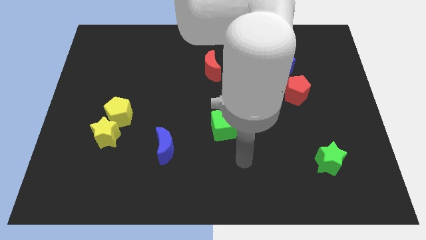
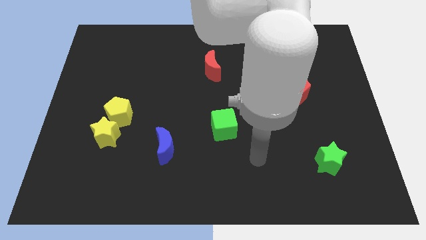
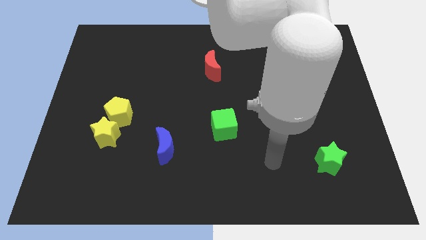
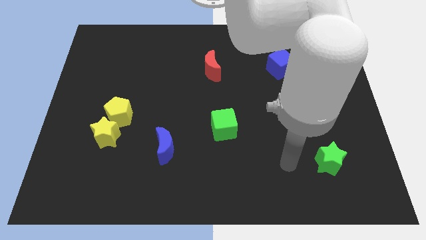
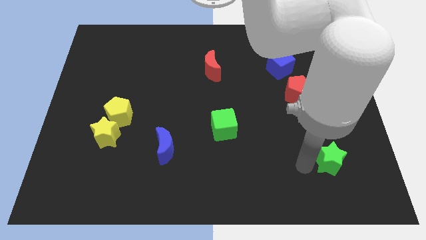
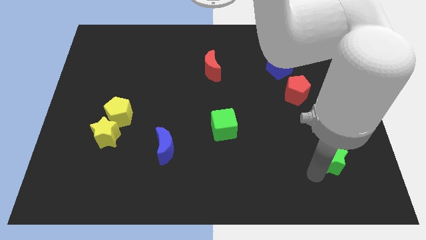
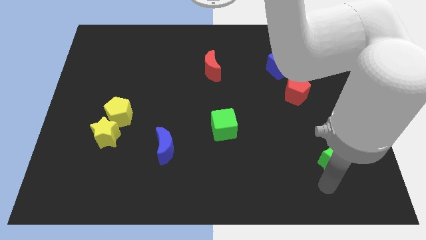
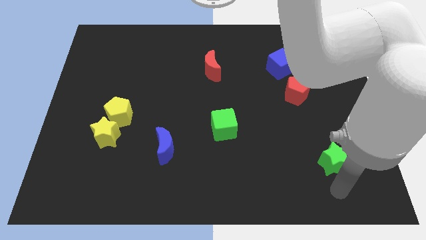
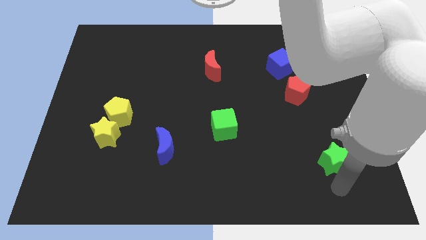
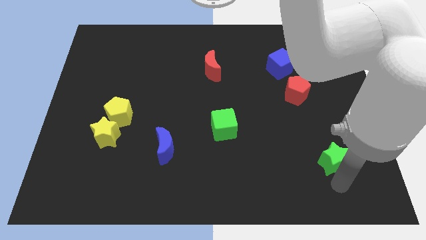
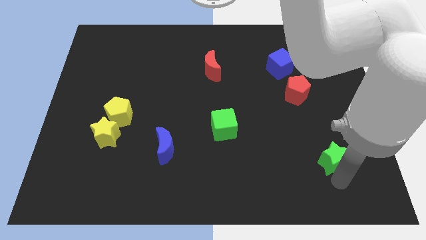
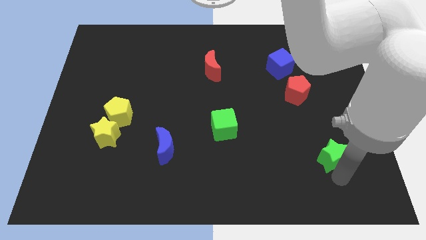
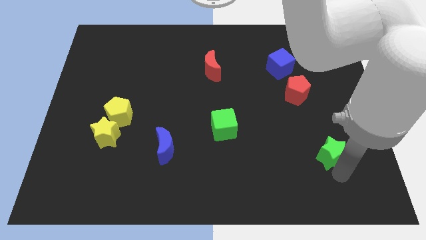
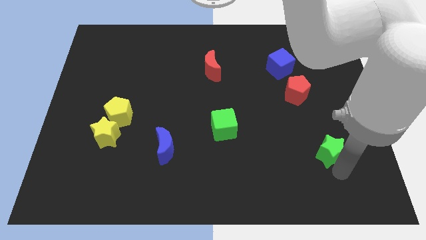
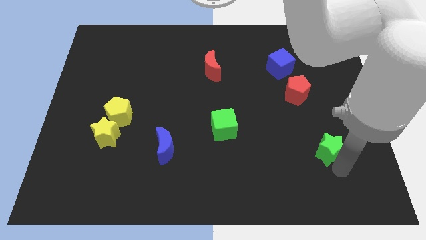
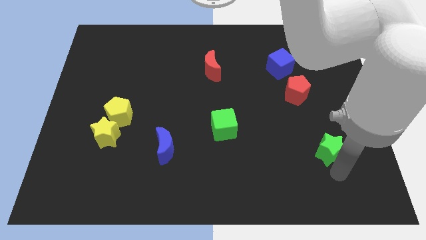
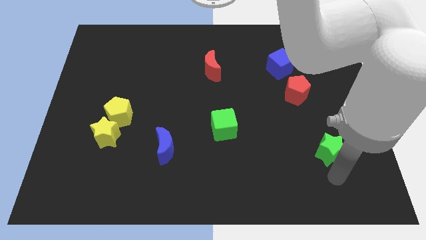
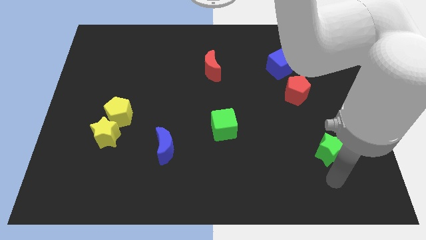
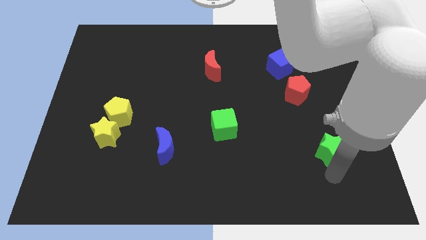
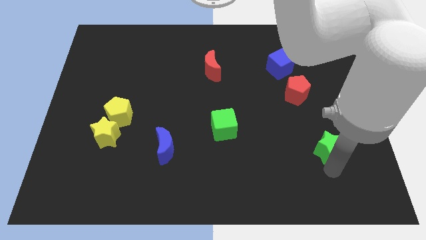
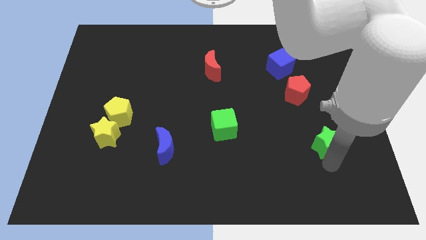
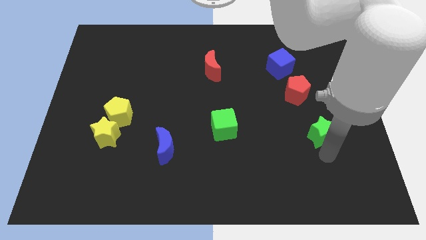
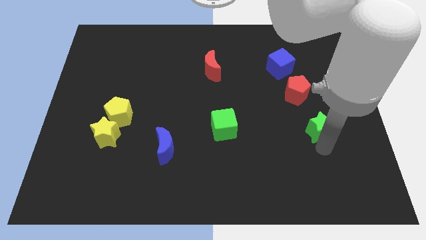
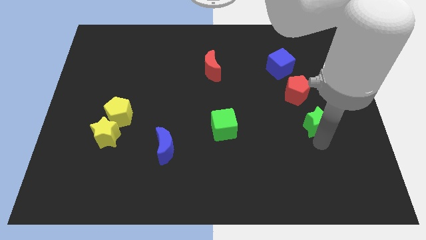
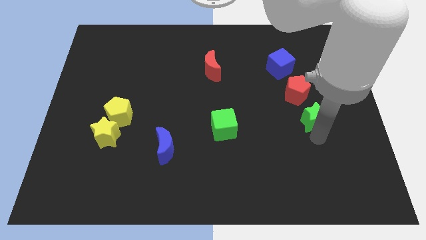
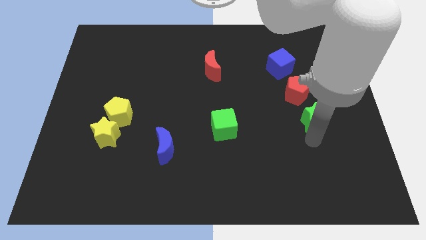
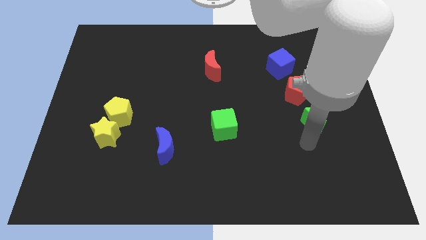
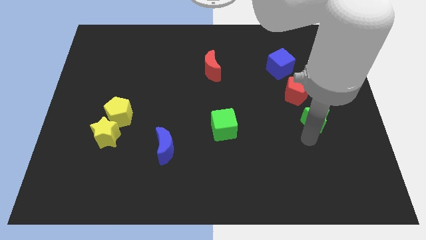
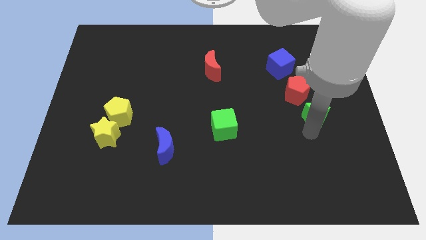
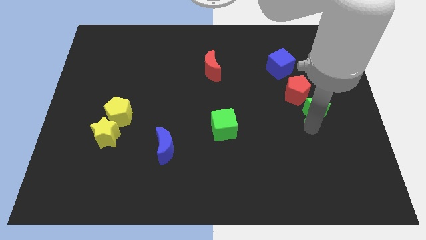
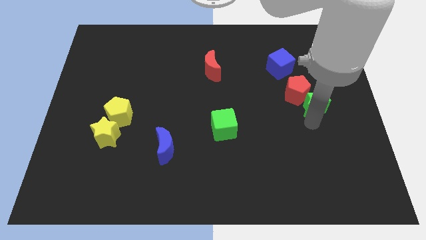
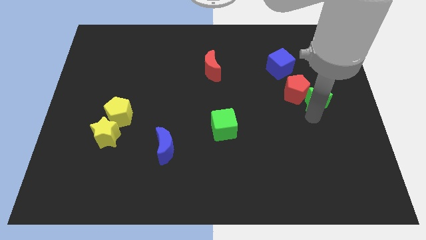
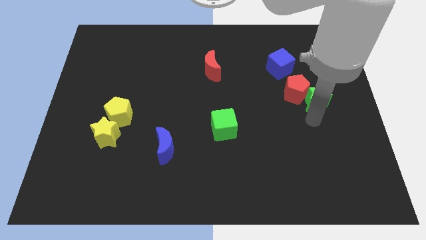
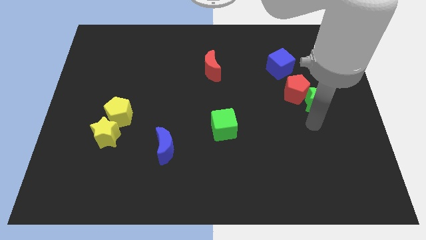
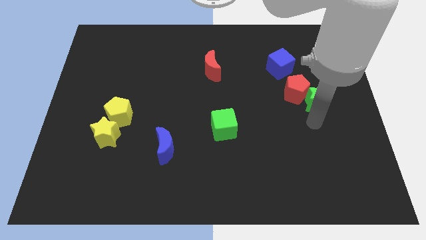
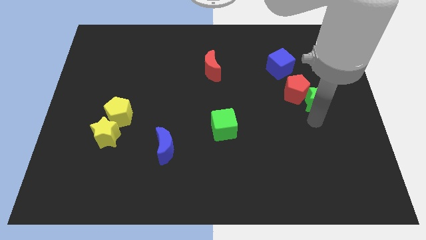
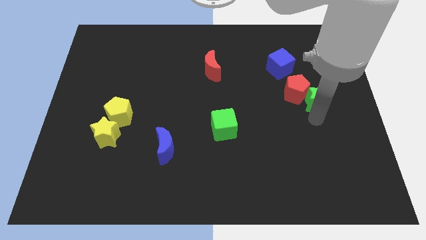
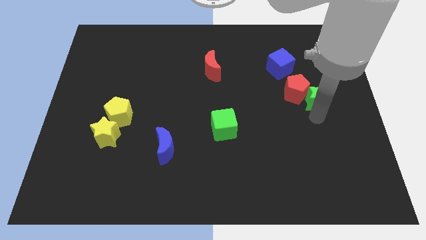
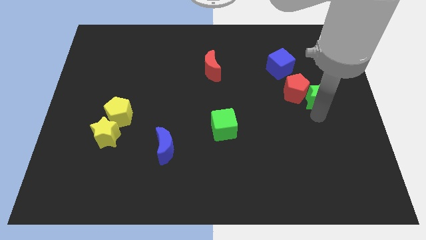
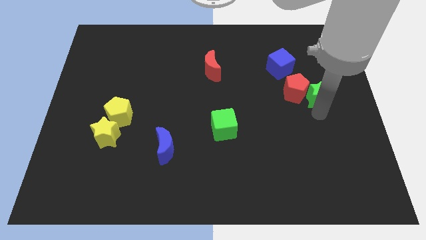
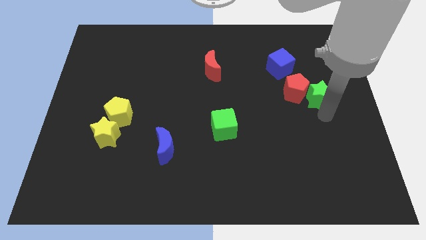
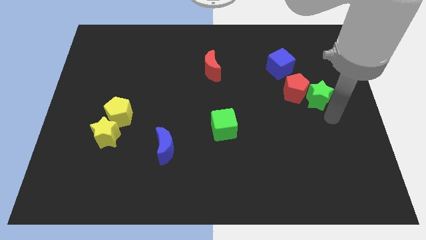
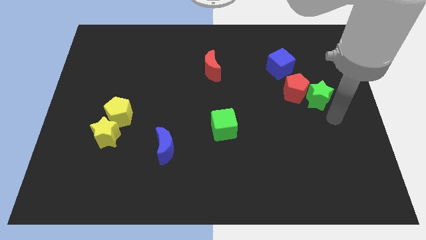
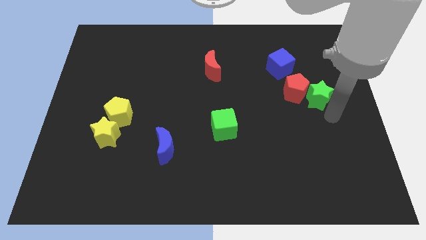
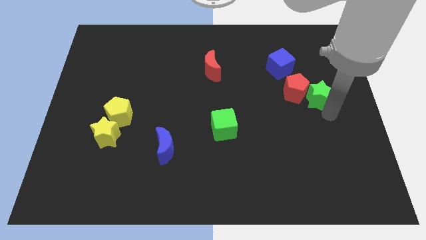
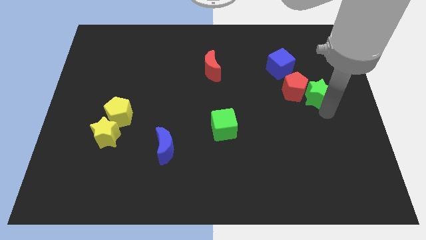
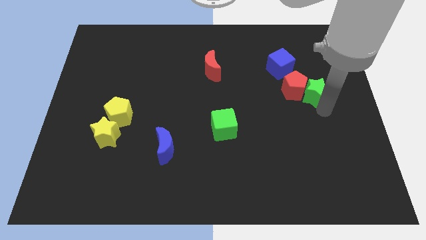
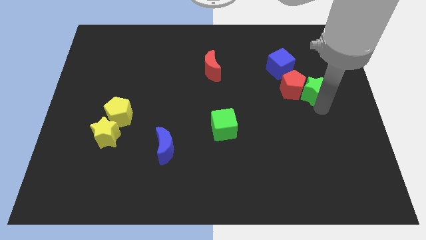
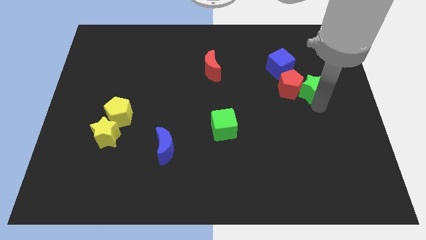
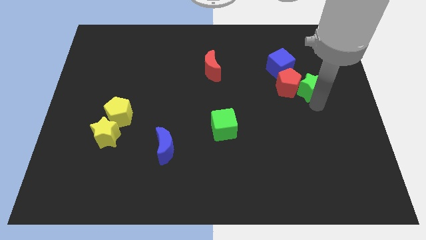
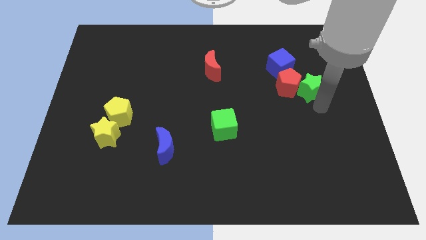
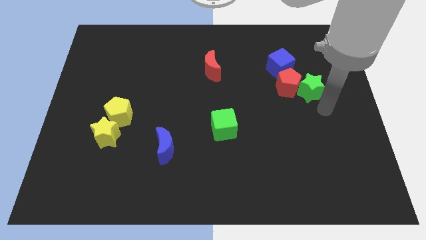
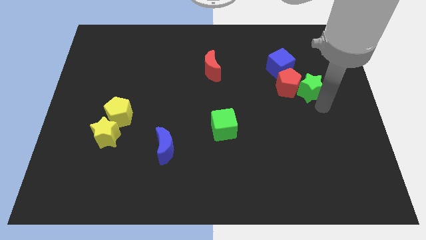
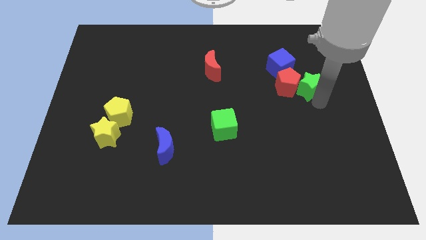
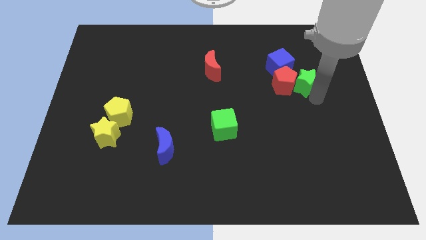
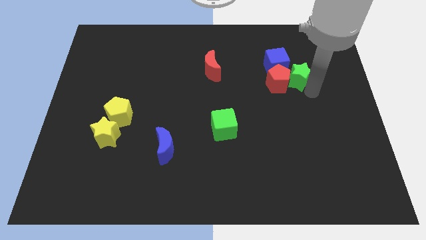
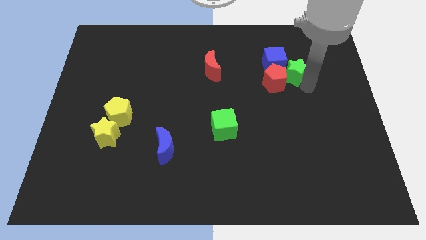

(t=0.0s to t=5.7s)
put the green star next to the blue cube

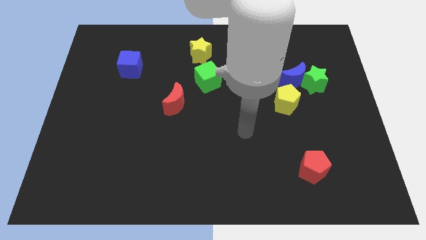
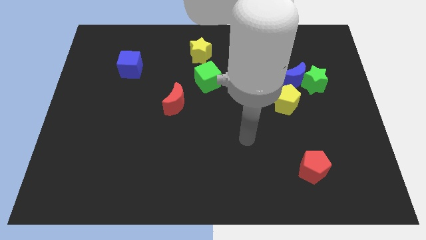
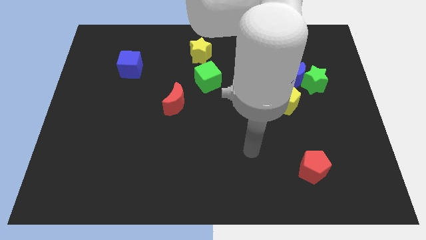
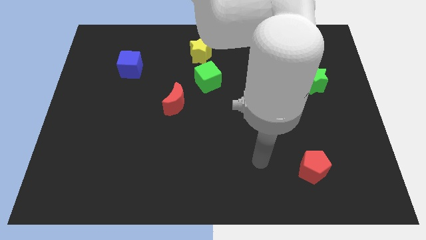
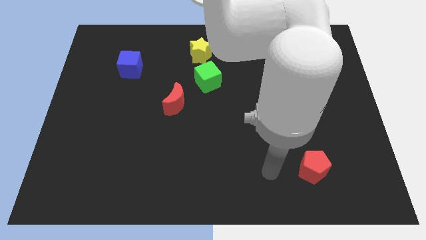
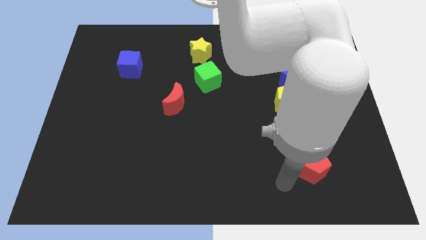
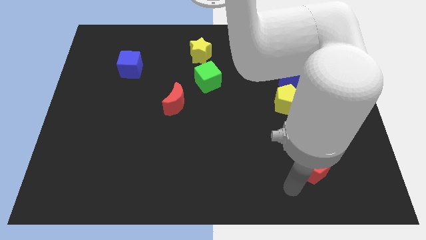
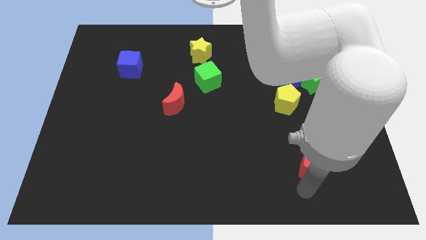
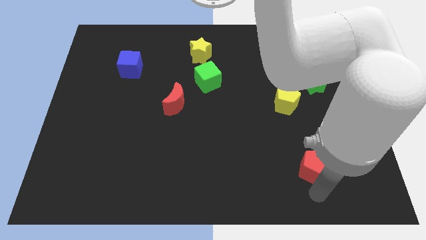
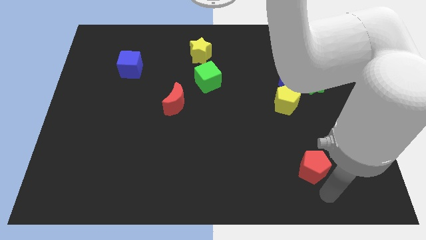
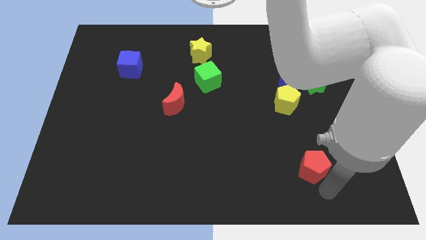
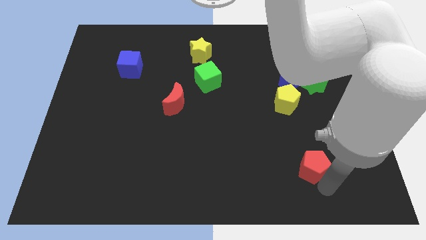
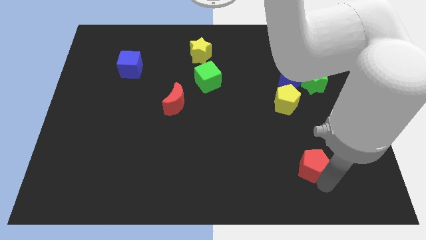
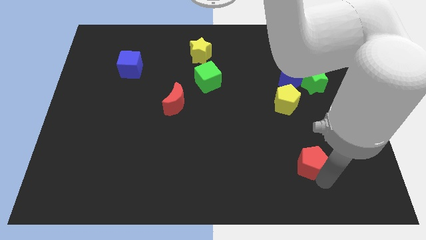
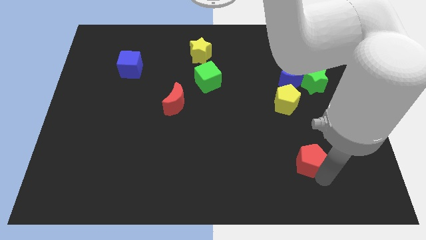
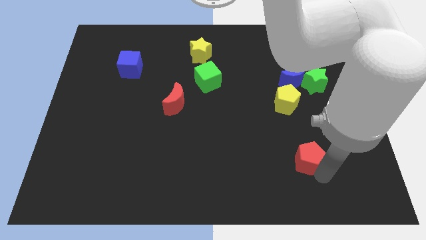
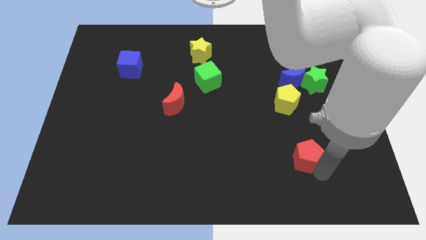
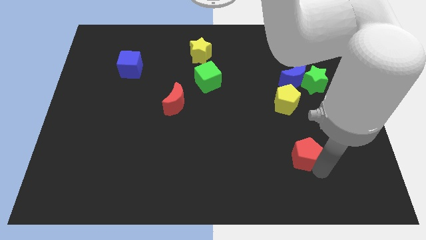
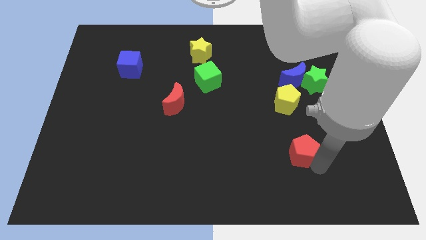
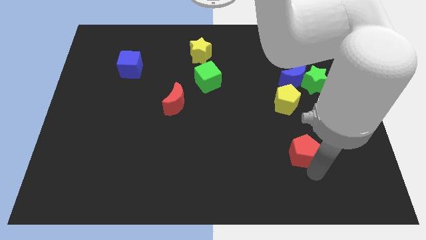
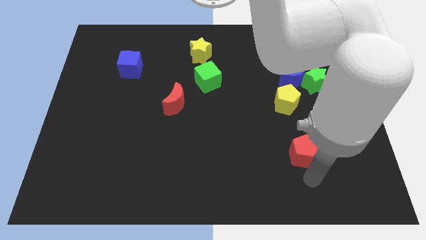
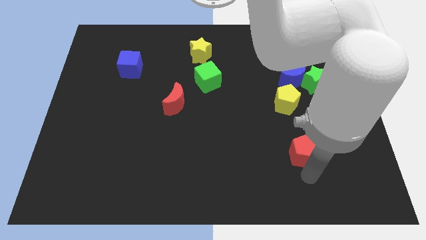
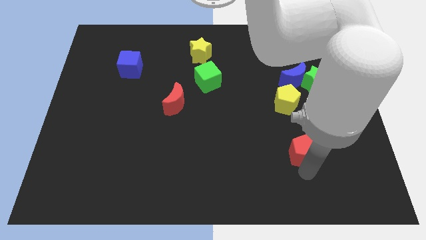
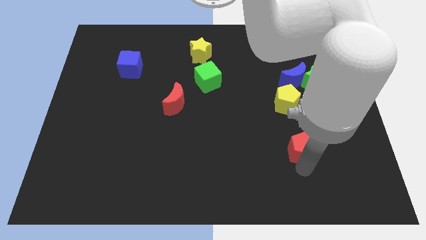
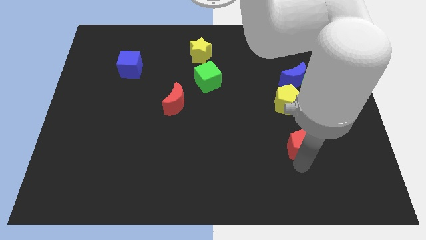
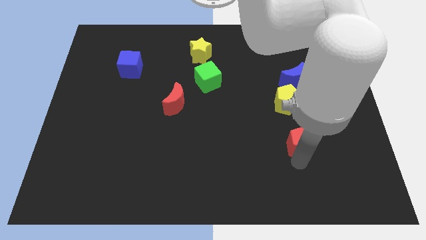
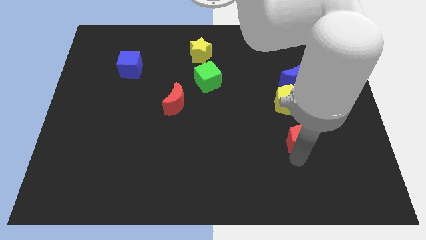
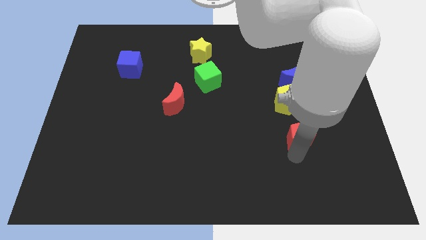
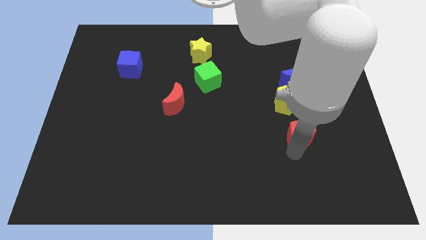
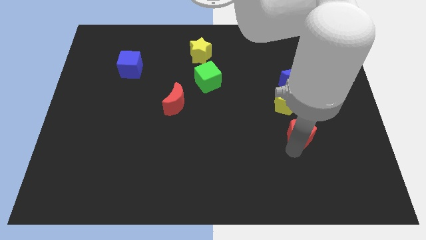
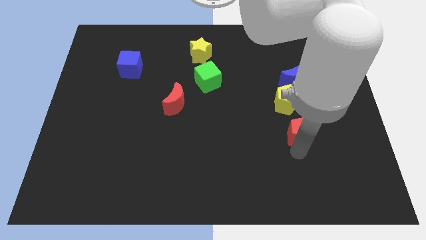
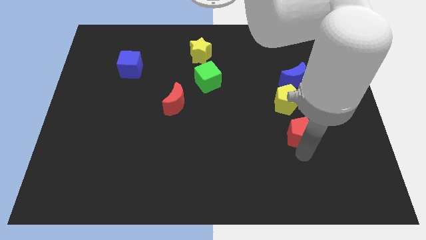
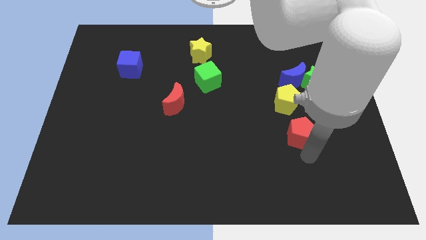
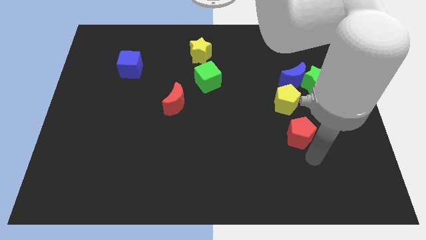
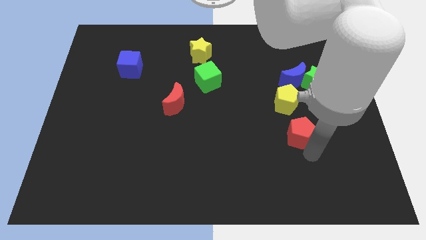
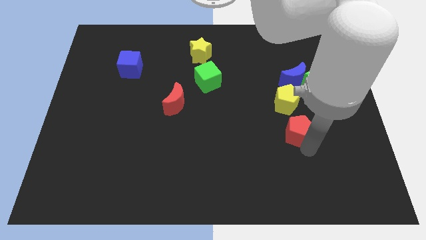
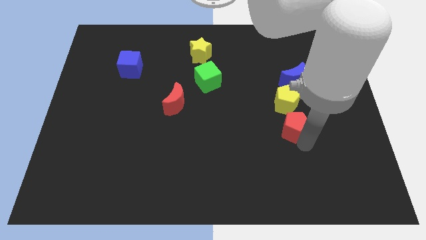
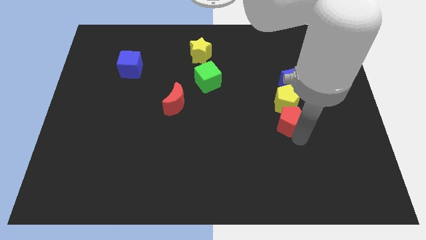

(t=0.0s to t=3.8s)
slide the red pentagon towards the yellow pentagon
